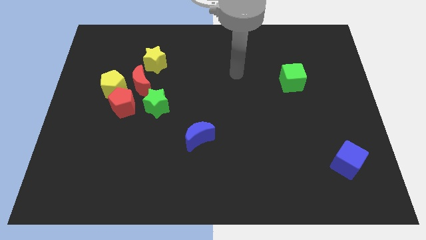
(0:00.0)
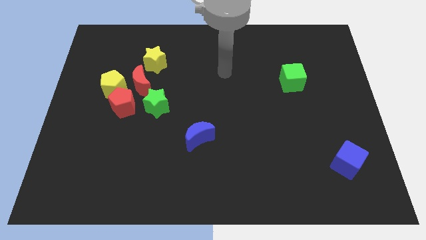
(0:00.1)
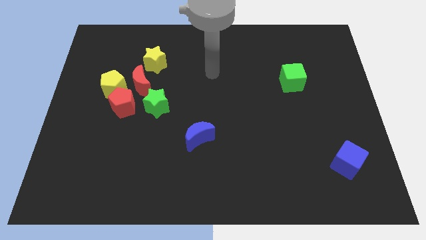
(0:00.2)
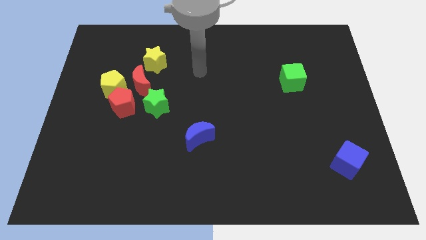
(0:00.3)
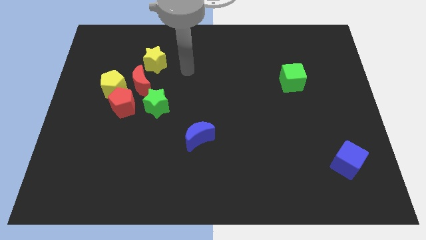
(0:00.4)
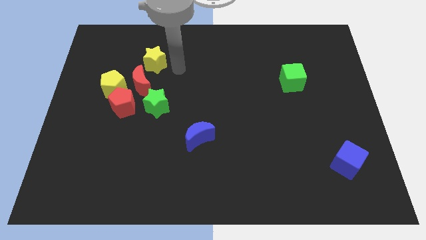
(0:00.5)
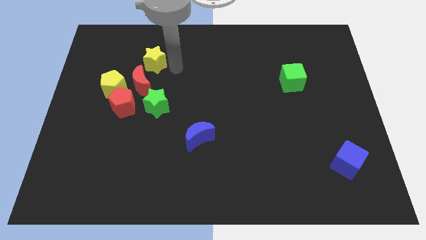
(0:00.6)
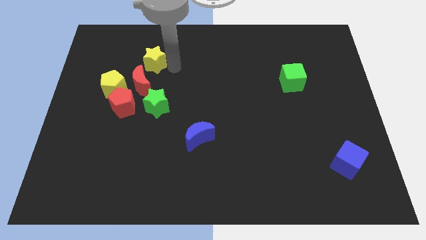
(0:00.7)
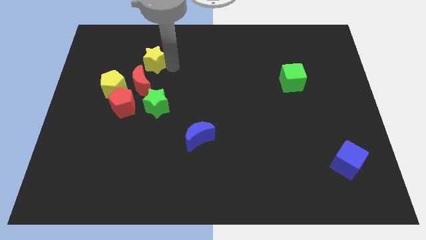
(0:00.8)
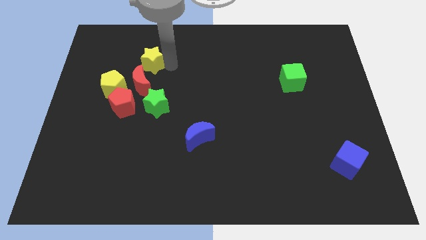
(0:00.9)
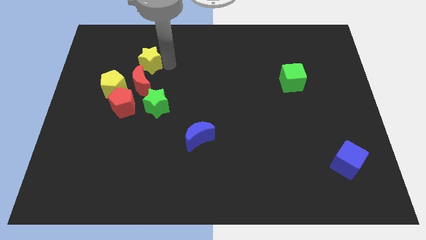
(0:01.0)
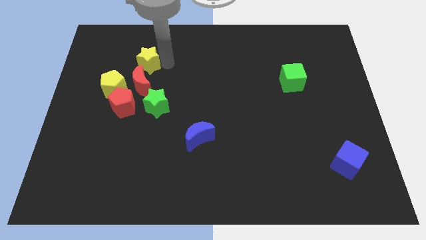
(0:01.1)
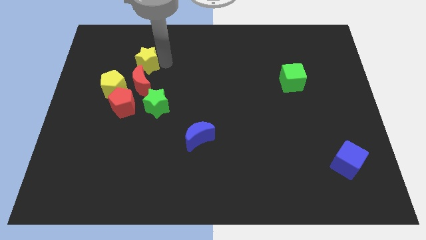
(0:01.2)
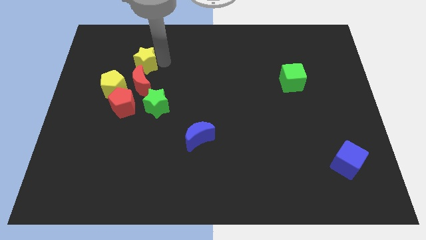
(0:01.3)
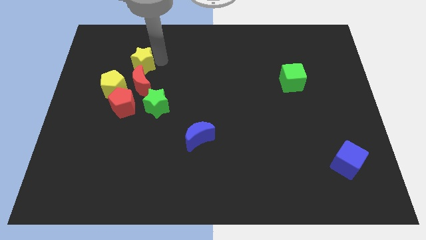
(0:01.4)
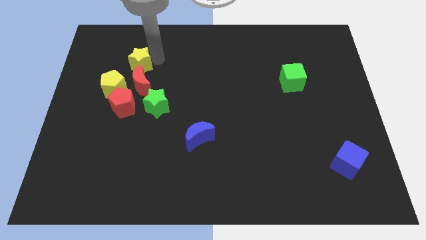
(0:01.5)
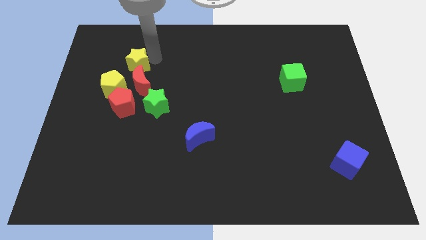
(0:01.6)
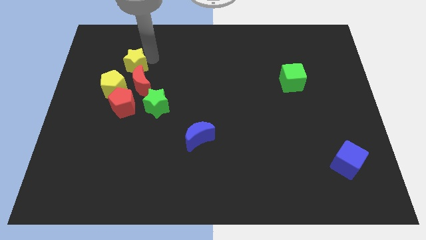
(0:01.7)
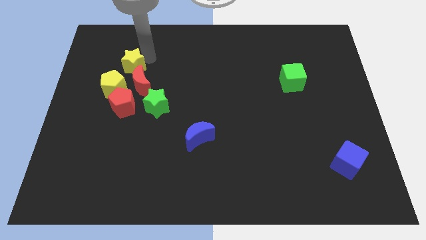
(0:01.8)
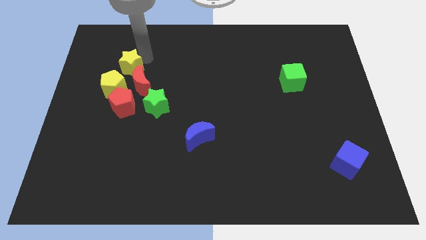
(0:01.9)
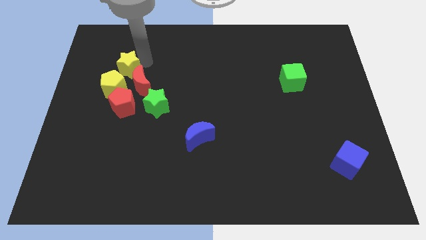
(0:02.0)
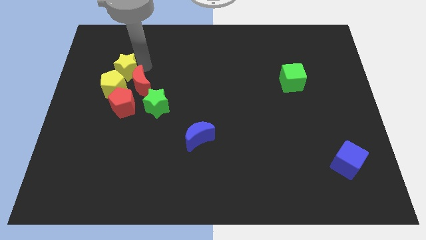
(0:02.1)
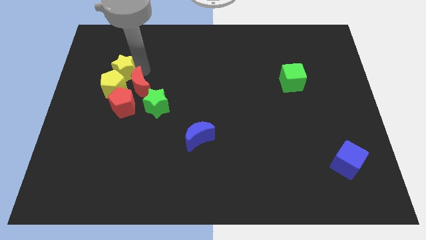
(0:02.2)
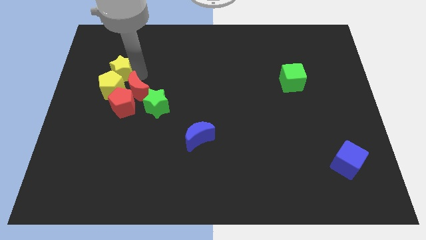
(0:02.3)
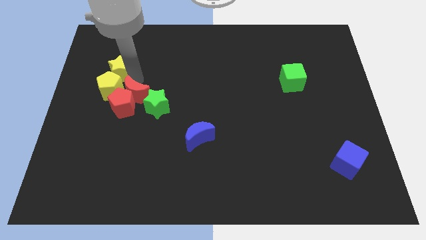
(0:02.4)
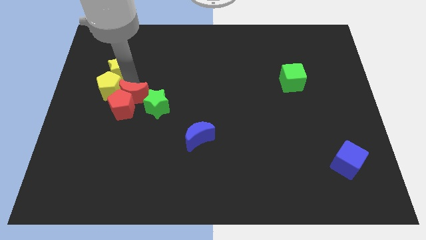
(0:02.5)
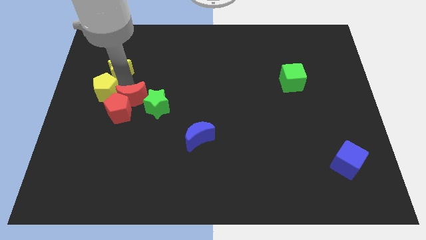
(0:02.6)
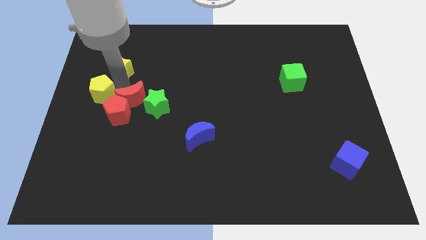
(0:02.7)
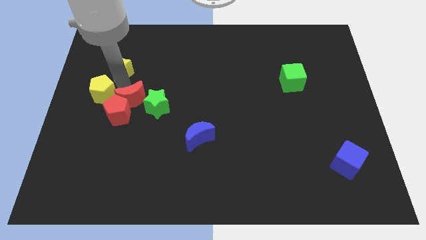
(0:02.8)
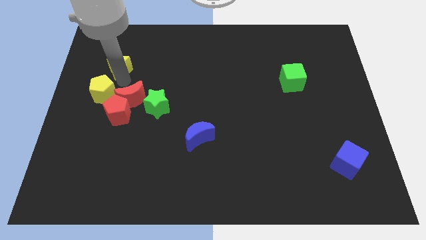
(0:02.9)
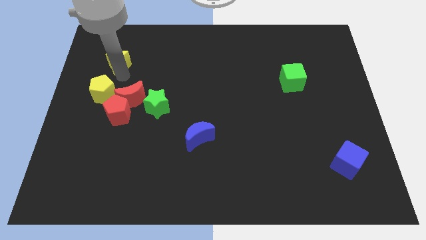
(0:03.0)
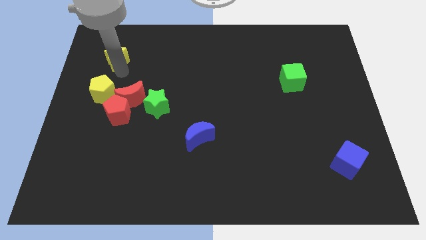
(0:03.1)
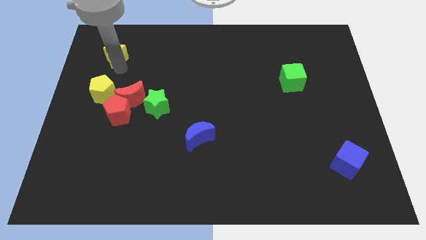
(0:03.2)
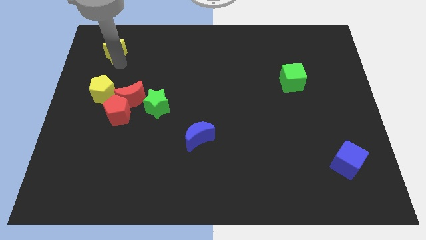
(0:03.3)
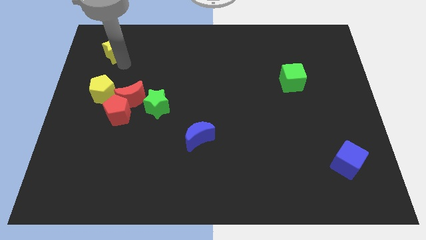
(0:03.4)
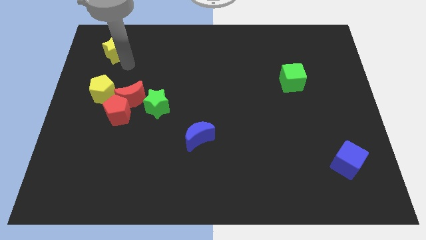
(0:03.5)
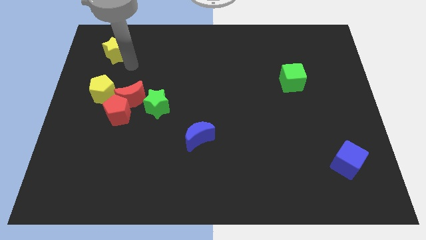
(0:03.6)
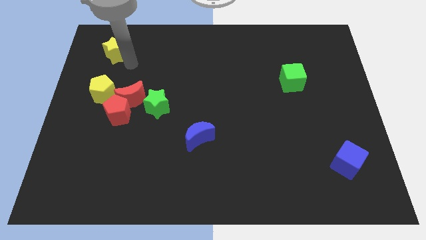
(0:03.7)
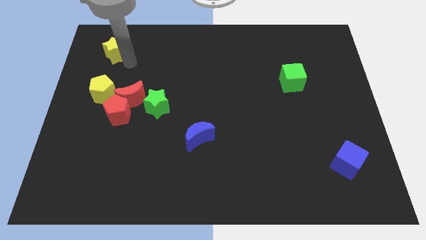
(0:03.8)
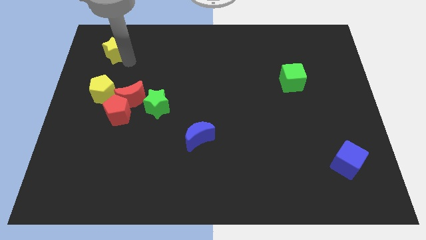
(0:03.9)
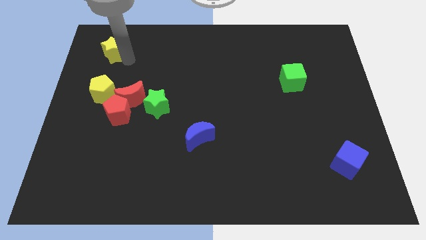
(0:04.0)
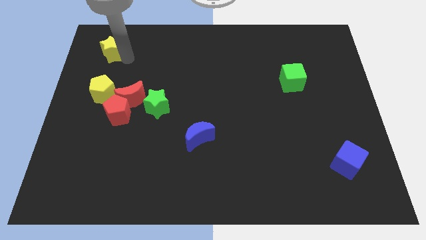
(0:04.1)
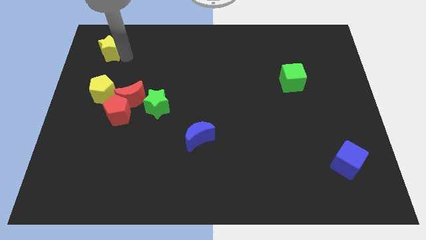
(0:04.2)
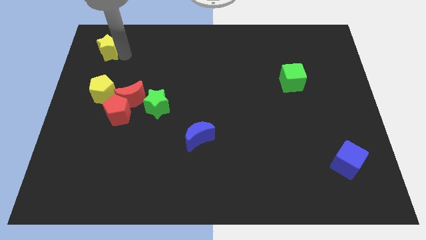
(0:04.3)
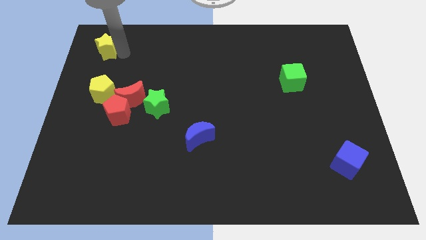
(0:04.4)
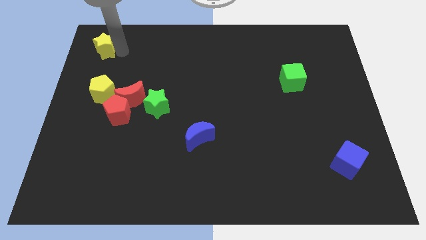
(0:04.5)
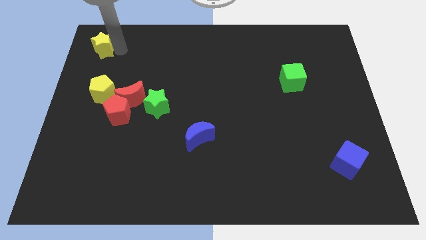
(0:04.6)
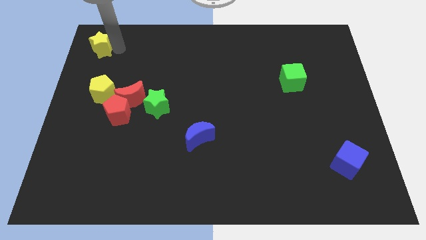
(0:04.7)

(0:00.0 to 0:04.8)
push the yellow star to the top left of the board

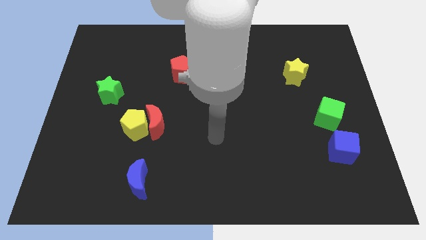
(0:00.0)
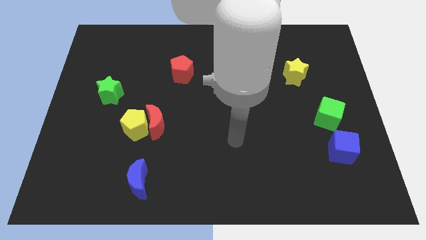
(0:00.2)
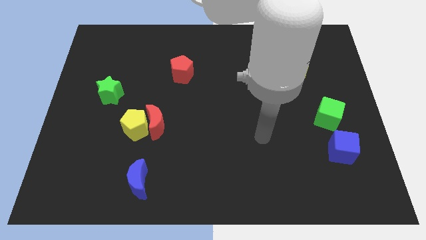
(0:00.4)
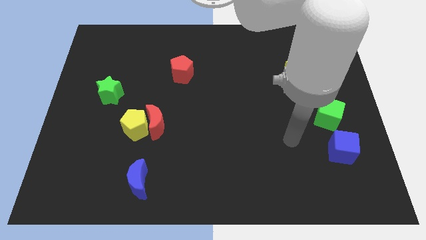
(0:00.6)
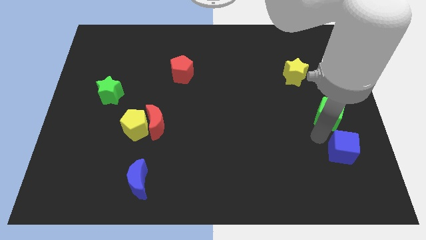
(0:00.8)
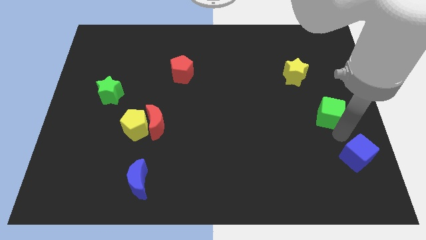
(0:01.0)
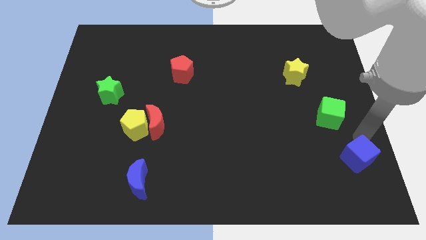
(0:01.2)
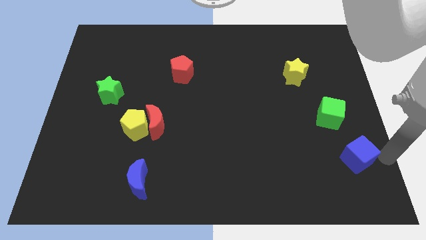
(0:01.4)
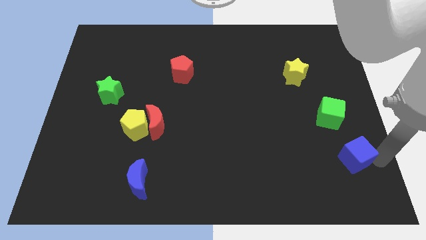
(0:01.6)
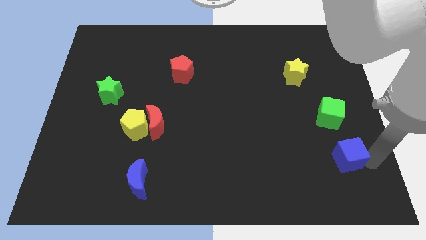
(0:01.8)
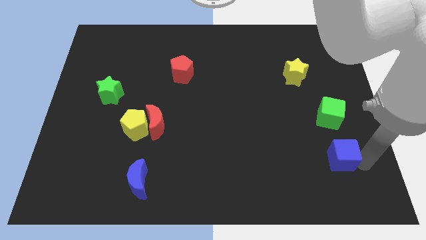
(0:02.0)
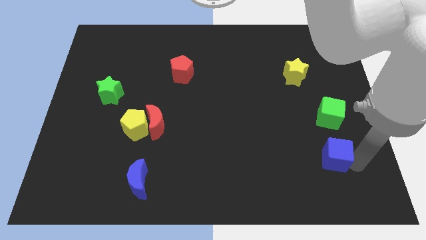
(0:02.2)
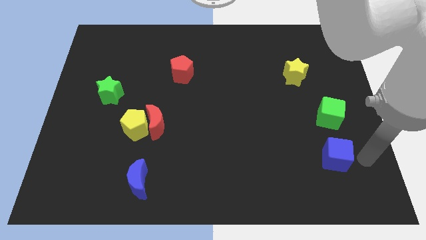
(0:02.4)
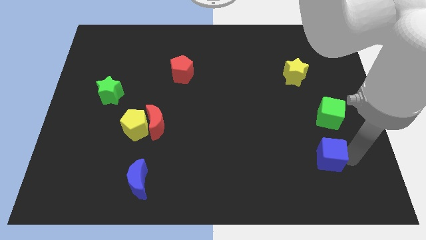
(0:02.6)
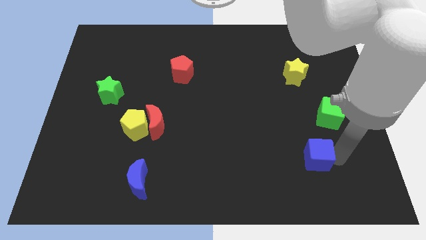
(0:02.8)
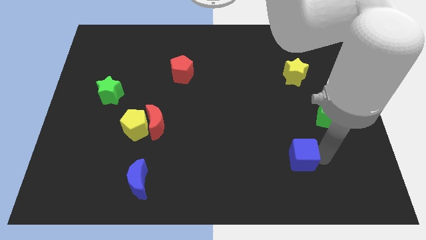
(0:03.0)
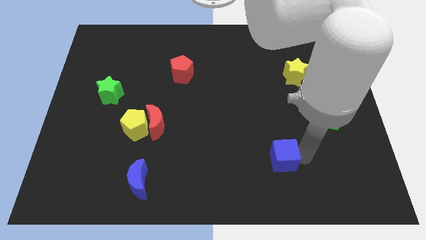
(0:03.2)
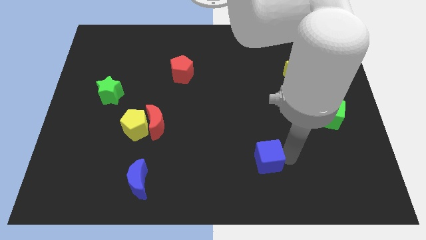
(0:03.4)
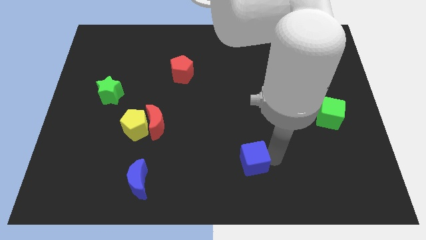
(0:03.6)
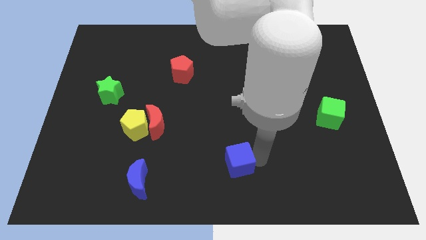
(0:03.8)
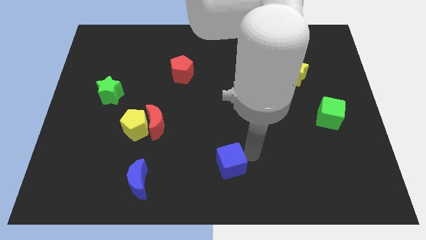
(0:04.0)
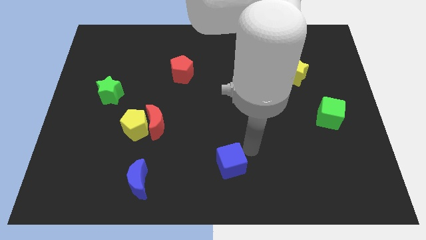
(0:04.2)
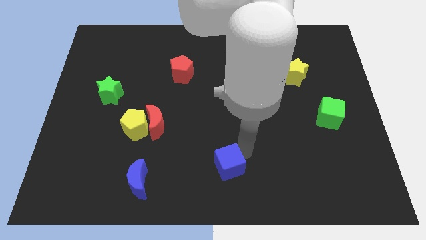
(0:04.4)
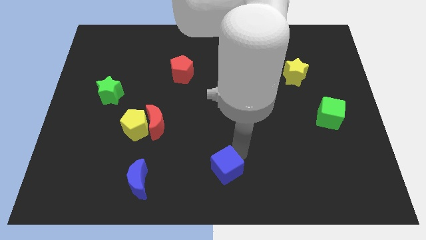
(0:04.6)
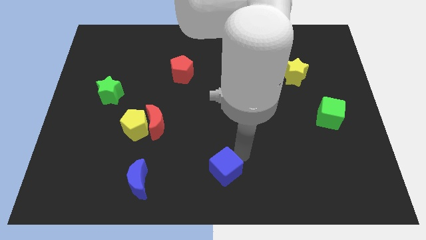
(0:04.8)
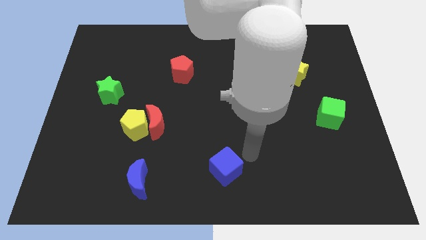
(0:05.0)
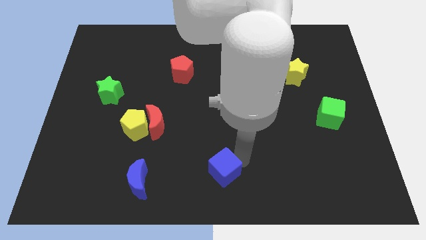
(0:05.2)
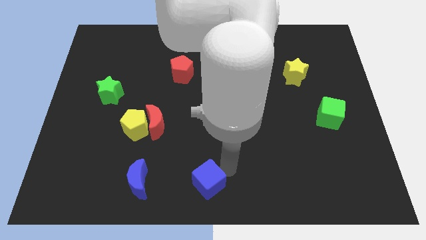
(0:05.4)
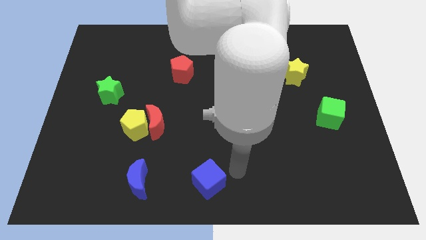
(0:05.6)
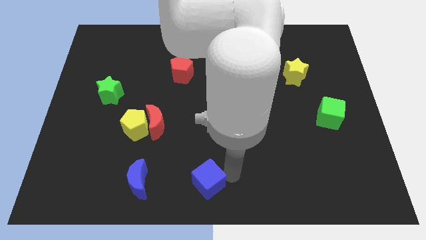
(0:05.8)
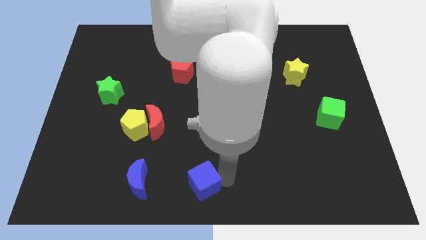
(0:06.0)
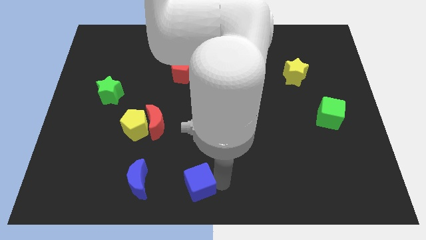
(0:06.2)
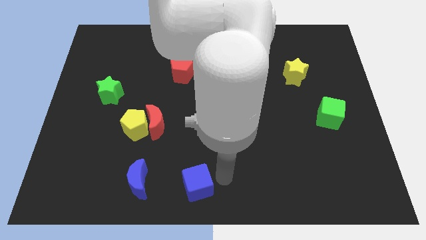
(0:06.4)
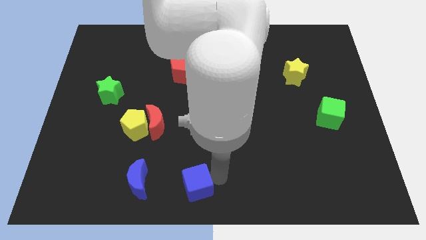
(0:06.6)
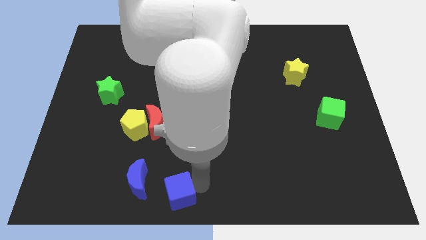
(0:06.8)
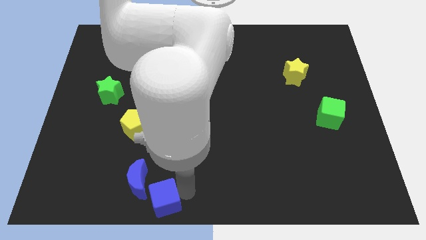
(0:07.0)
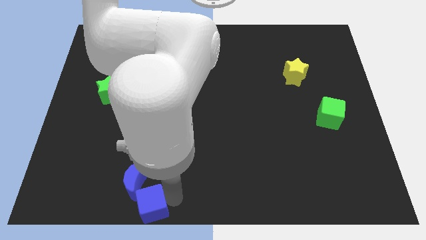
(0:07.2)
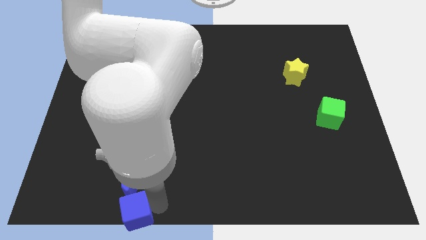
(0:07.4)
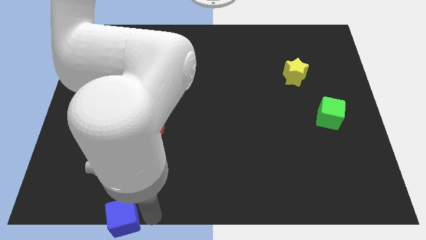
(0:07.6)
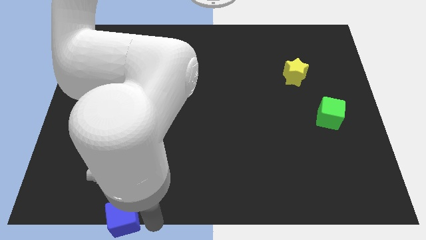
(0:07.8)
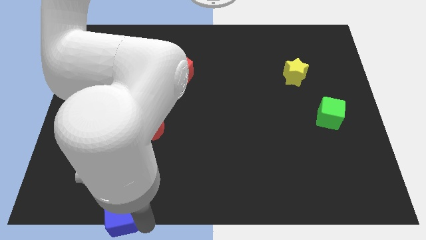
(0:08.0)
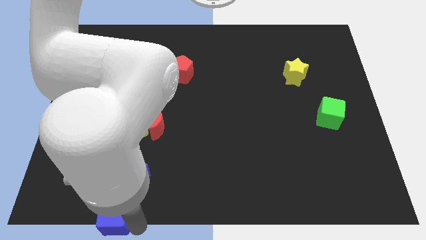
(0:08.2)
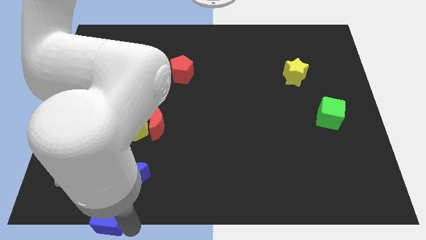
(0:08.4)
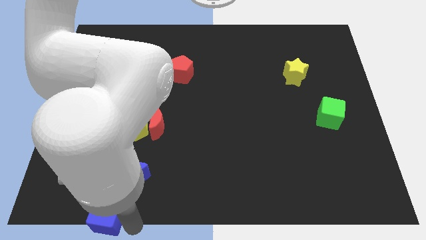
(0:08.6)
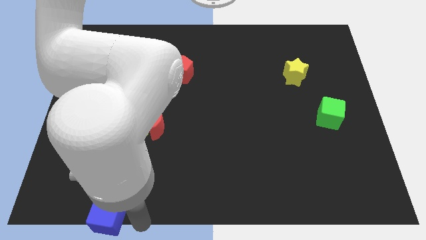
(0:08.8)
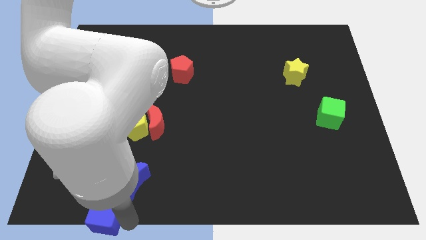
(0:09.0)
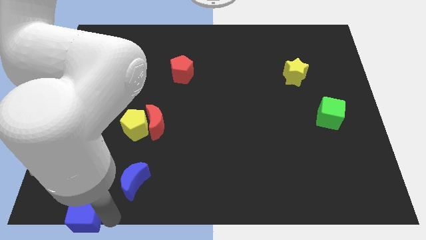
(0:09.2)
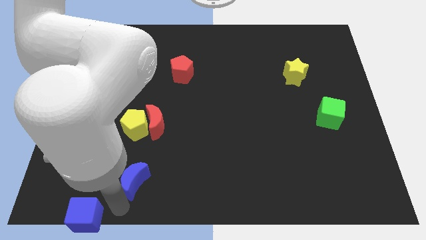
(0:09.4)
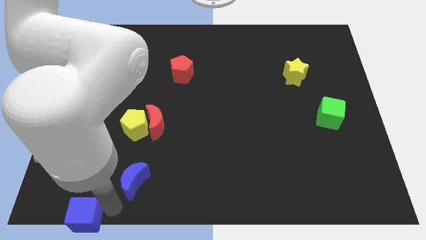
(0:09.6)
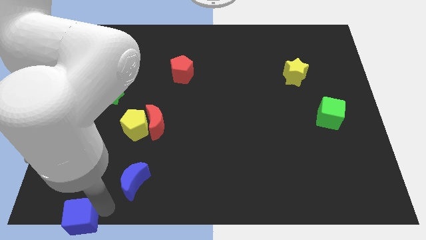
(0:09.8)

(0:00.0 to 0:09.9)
move the blue cube to the bottom left corner
